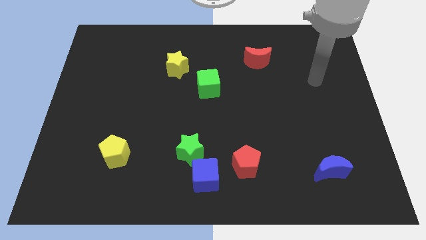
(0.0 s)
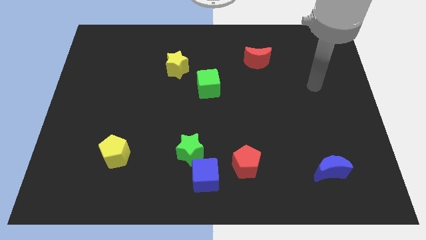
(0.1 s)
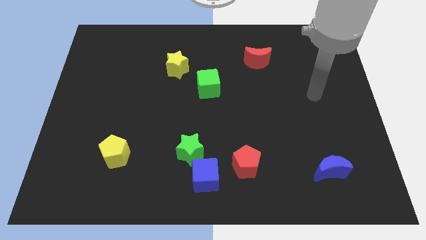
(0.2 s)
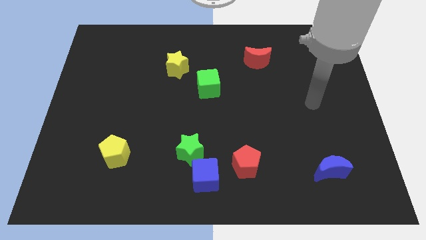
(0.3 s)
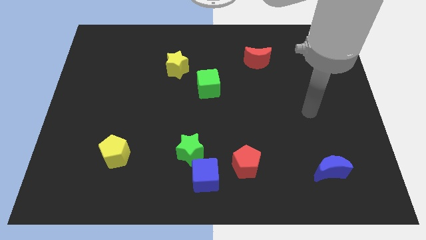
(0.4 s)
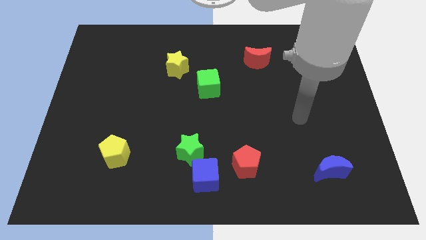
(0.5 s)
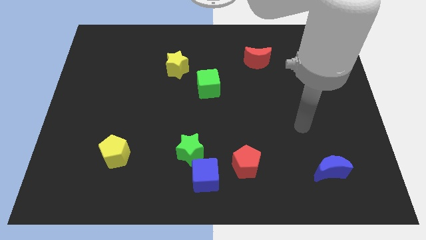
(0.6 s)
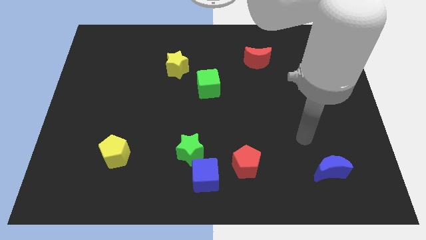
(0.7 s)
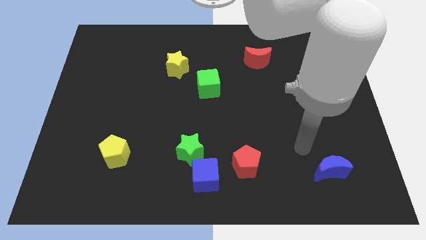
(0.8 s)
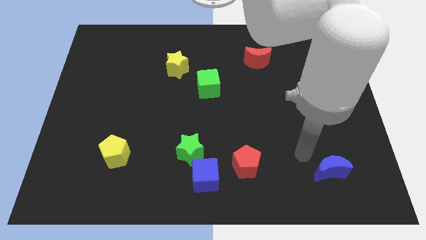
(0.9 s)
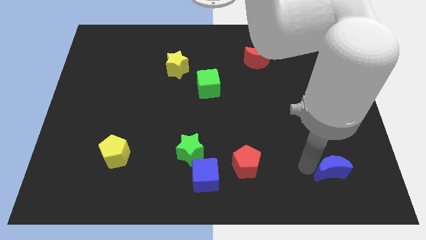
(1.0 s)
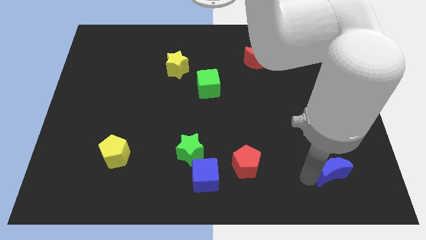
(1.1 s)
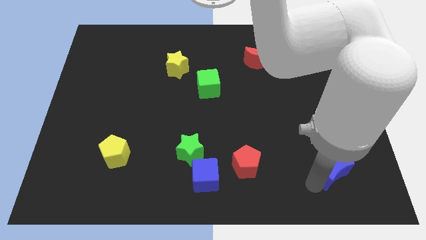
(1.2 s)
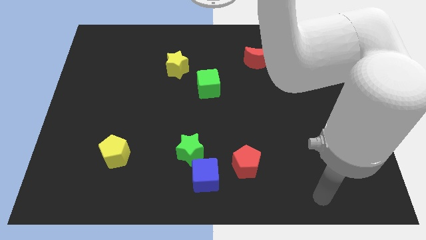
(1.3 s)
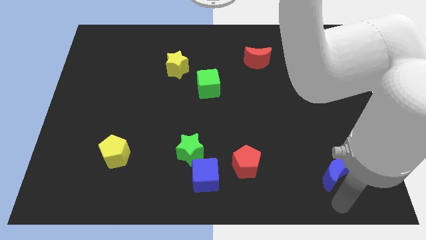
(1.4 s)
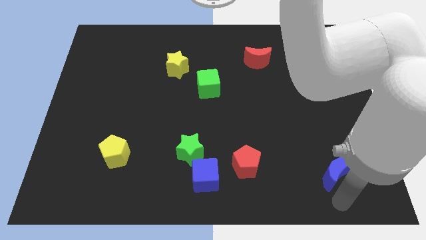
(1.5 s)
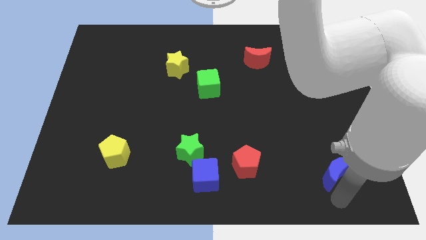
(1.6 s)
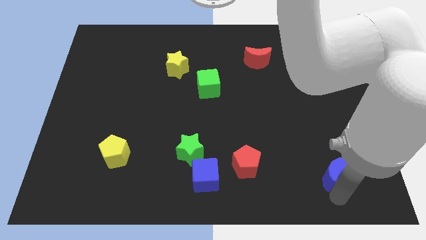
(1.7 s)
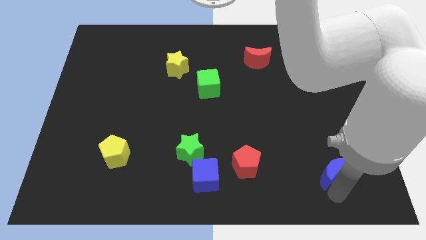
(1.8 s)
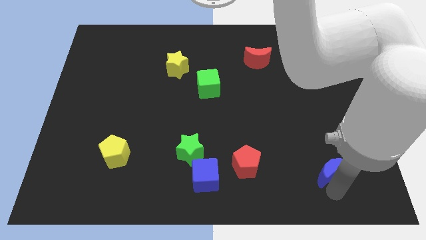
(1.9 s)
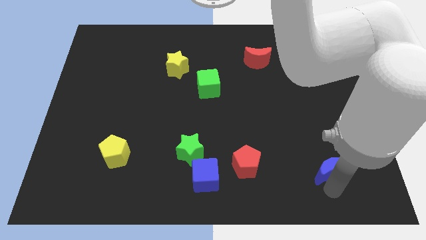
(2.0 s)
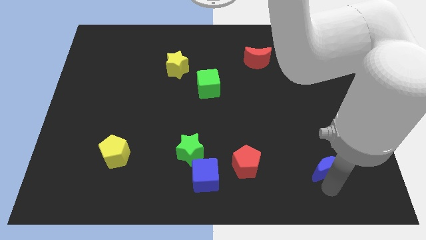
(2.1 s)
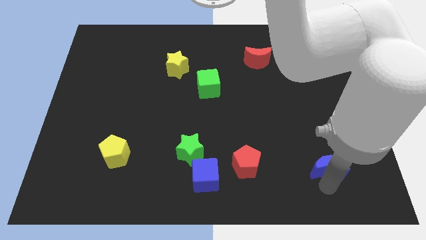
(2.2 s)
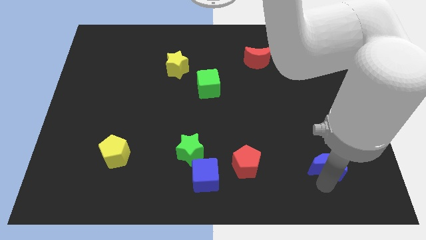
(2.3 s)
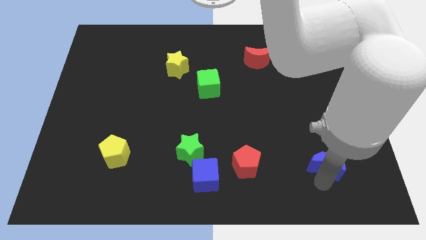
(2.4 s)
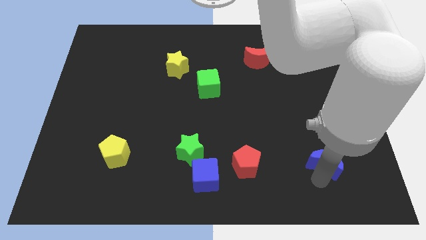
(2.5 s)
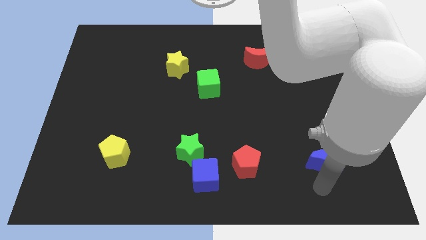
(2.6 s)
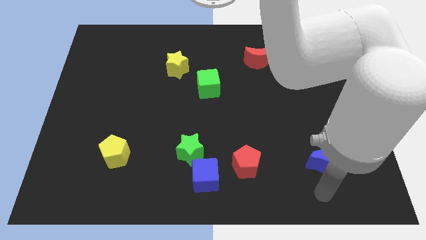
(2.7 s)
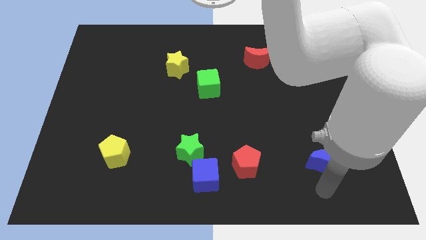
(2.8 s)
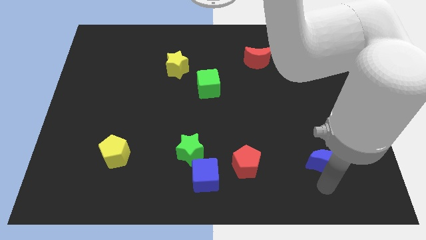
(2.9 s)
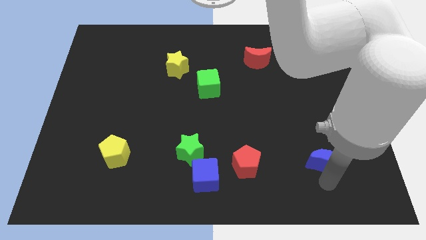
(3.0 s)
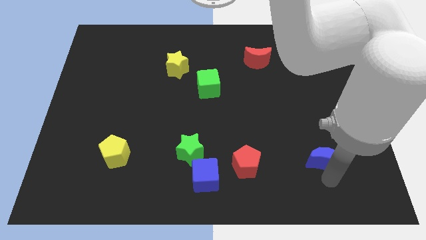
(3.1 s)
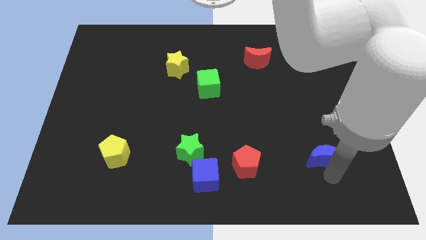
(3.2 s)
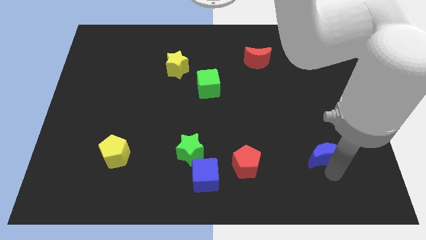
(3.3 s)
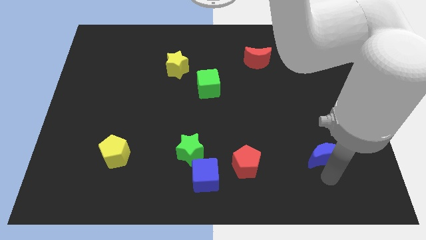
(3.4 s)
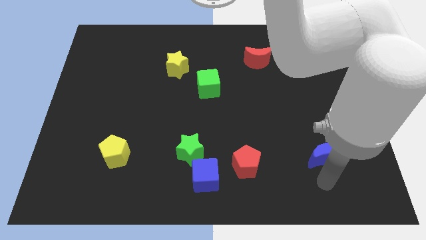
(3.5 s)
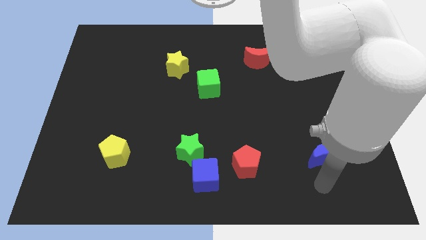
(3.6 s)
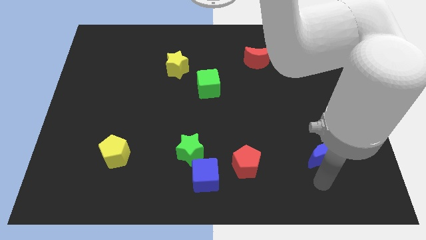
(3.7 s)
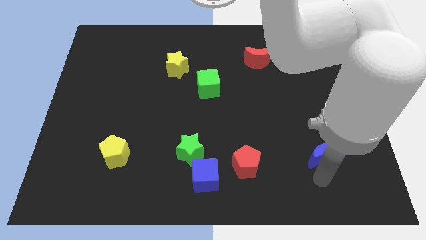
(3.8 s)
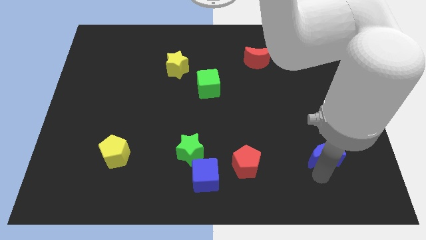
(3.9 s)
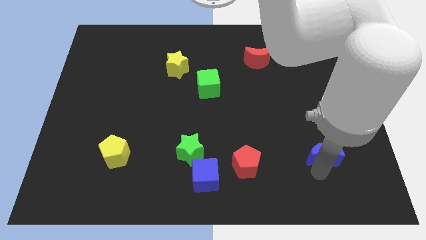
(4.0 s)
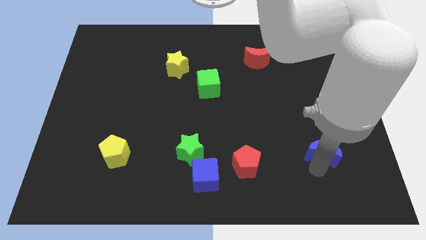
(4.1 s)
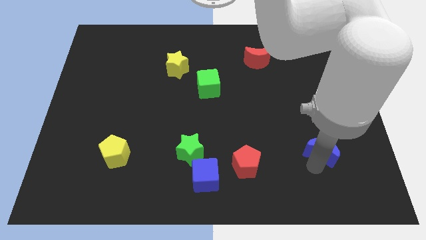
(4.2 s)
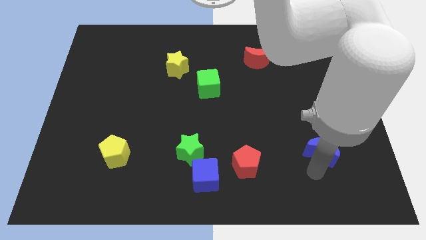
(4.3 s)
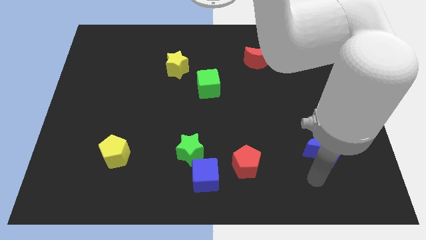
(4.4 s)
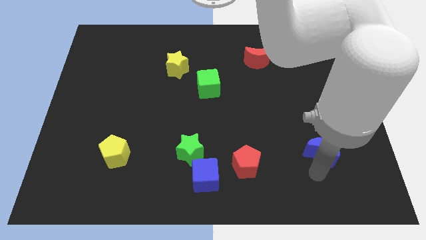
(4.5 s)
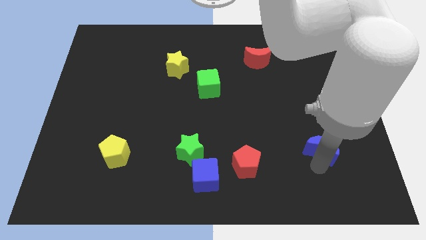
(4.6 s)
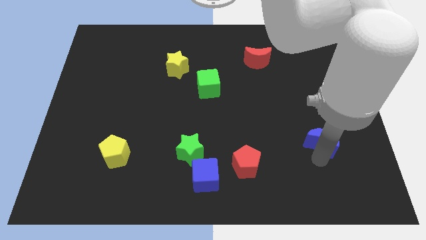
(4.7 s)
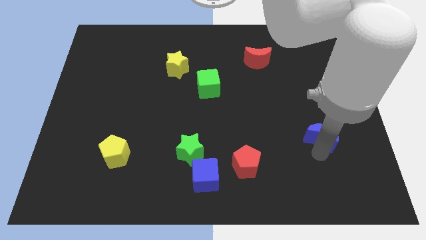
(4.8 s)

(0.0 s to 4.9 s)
slightly push the blue moon upwards

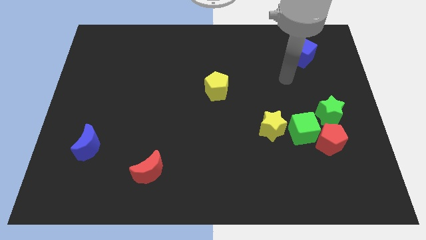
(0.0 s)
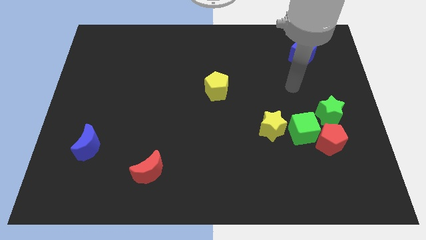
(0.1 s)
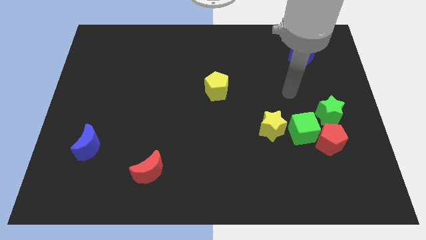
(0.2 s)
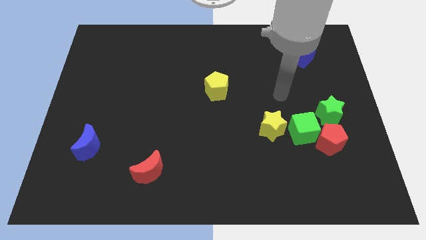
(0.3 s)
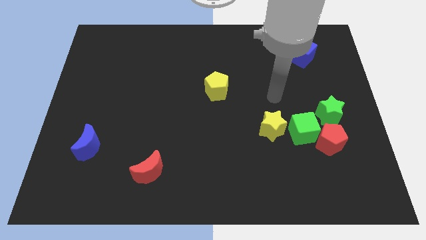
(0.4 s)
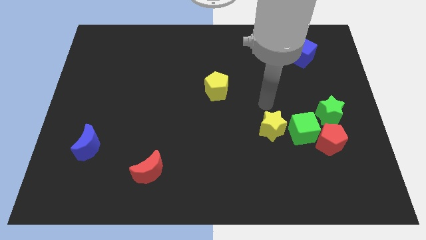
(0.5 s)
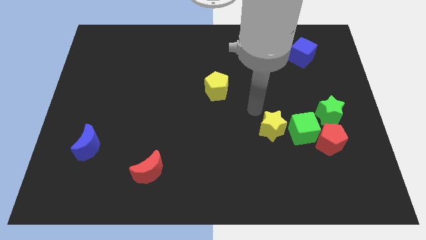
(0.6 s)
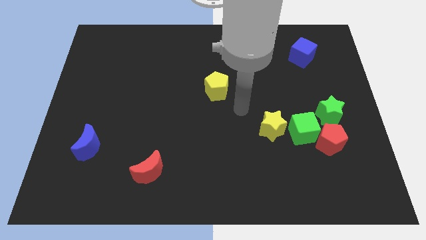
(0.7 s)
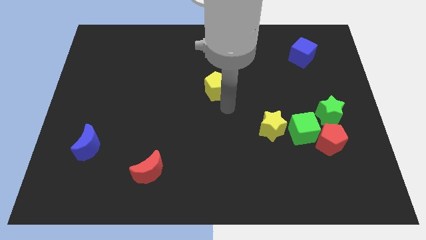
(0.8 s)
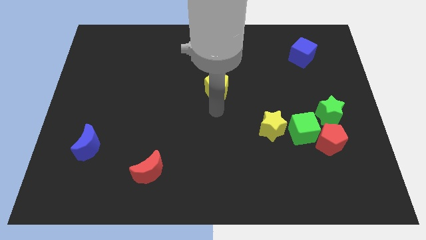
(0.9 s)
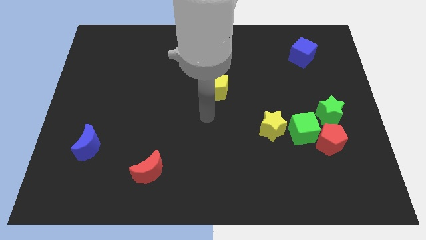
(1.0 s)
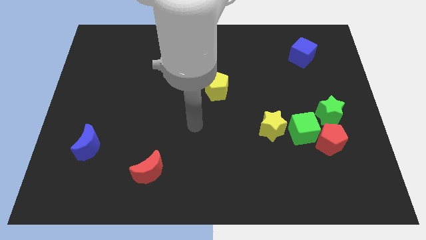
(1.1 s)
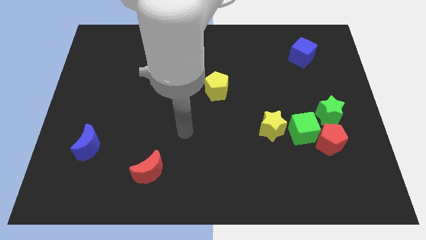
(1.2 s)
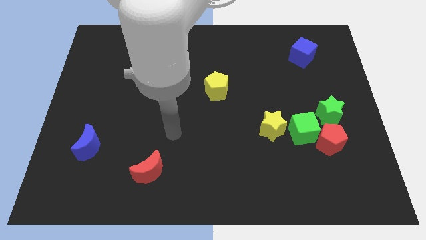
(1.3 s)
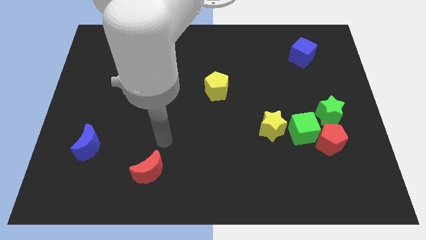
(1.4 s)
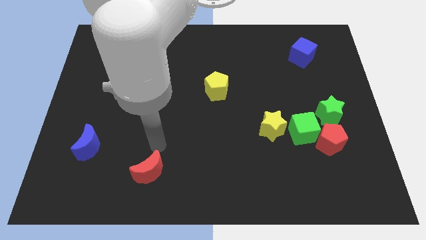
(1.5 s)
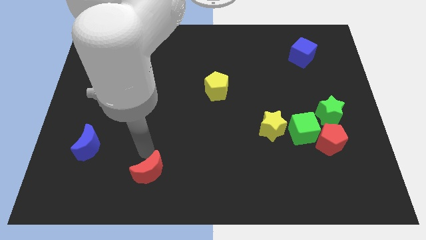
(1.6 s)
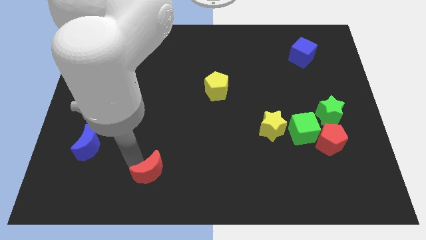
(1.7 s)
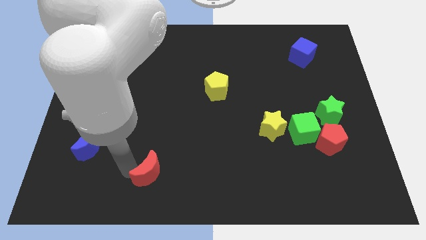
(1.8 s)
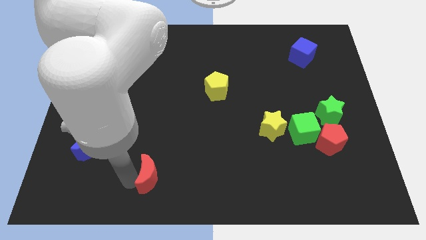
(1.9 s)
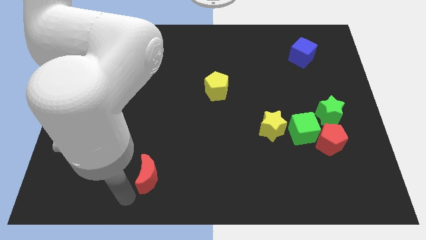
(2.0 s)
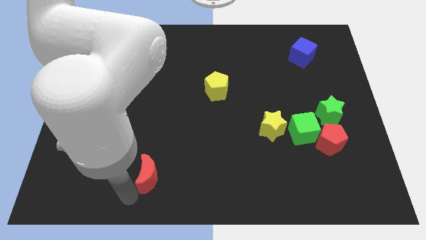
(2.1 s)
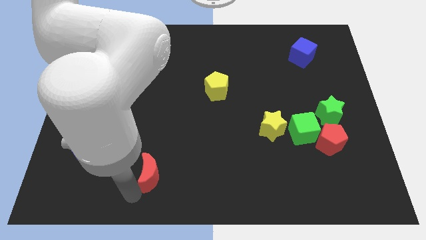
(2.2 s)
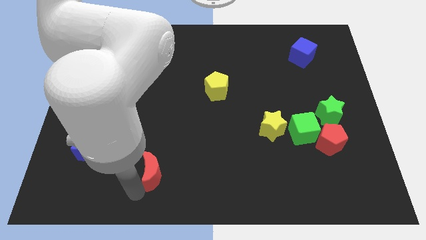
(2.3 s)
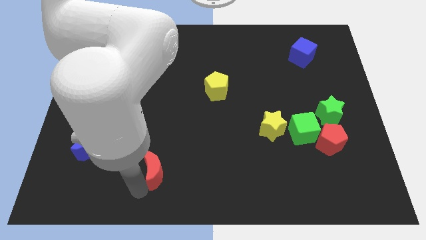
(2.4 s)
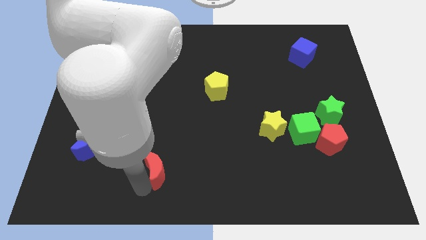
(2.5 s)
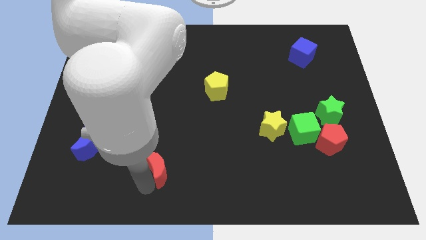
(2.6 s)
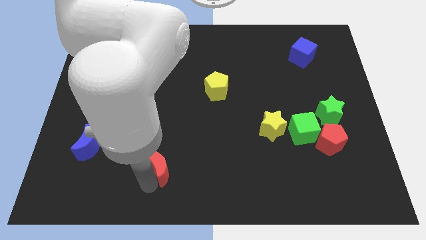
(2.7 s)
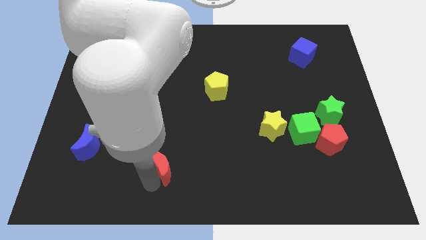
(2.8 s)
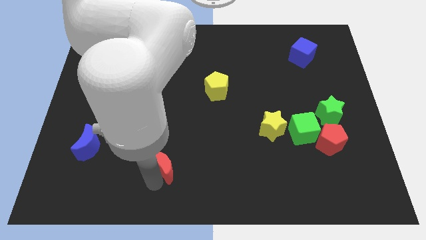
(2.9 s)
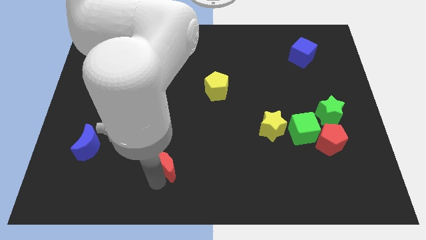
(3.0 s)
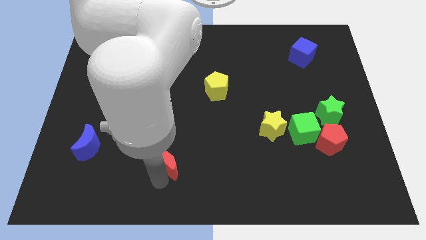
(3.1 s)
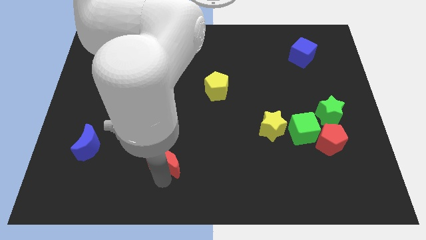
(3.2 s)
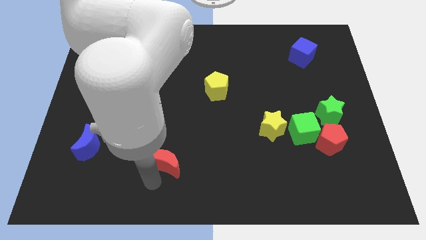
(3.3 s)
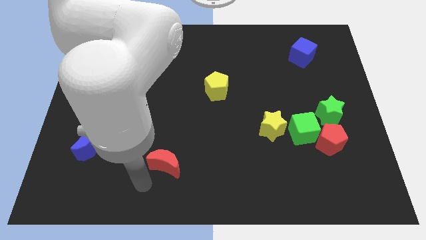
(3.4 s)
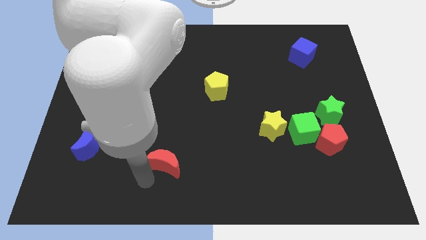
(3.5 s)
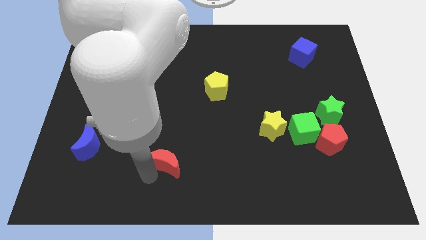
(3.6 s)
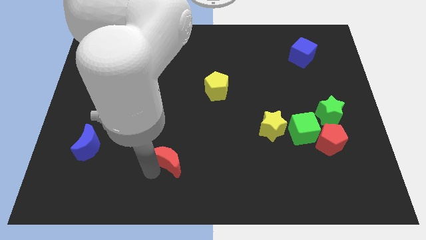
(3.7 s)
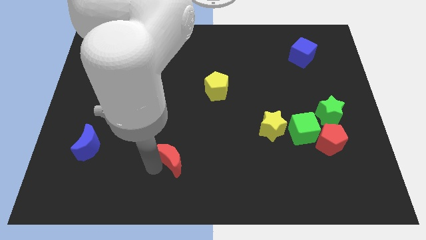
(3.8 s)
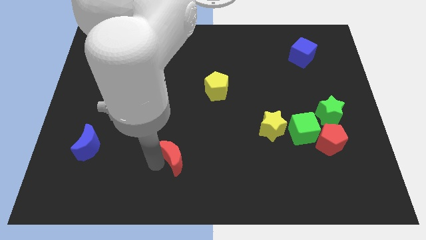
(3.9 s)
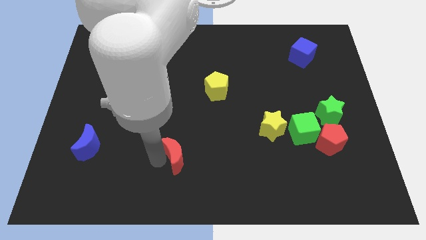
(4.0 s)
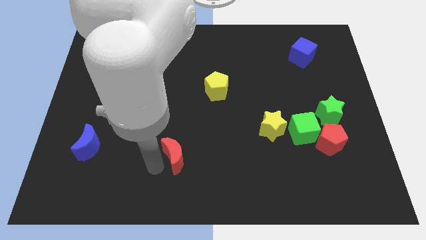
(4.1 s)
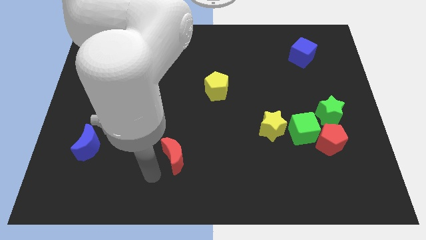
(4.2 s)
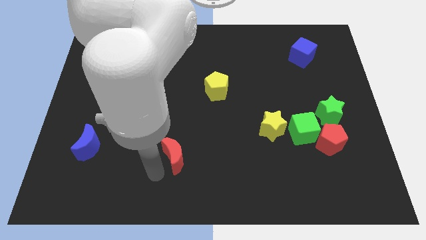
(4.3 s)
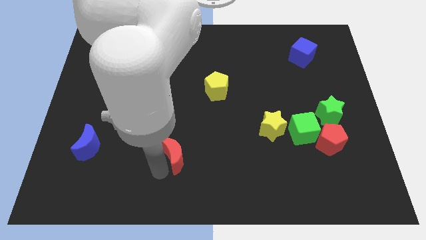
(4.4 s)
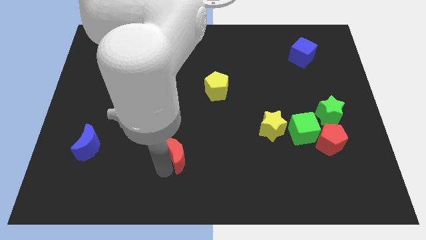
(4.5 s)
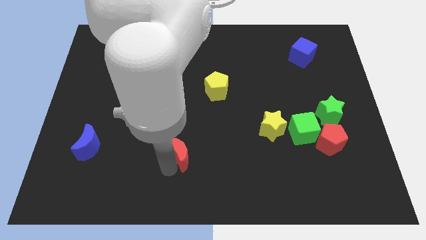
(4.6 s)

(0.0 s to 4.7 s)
slightly push the red moon diagonally upwards and right
